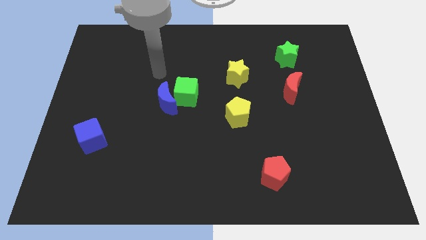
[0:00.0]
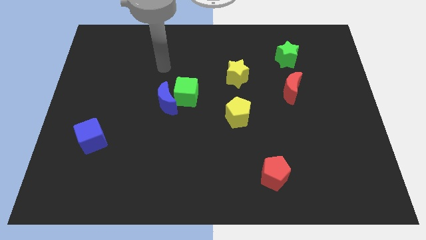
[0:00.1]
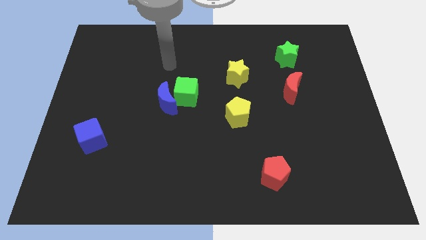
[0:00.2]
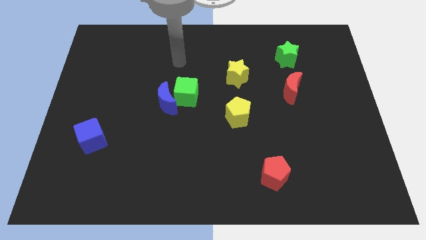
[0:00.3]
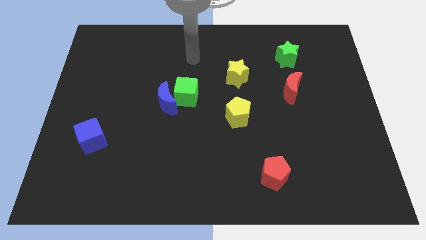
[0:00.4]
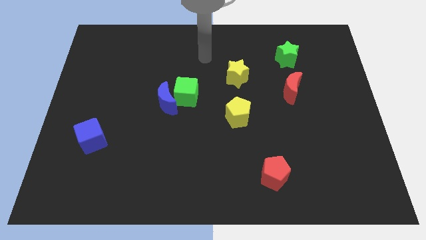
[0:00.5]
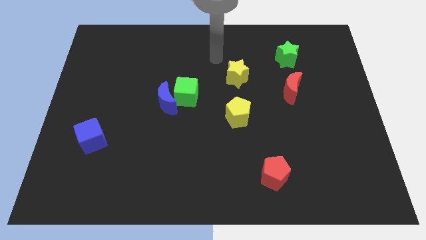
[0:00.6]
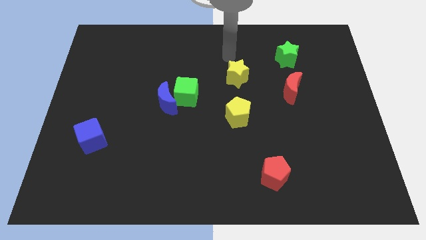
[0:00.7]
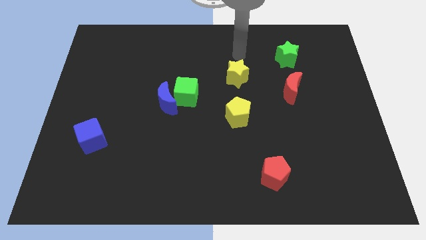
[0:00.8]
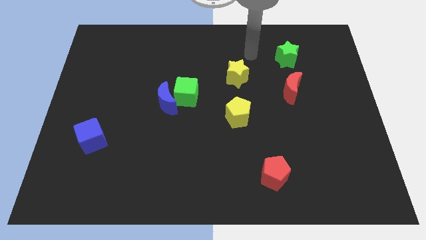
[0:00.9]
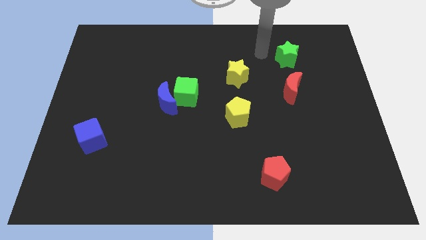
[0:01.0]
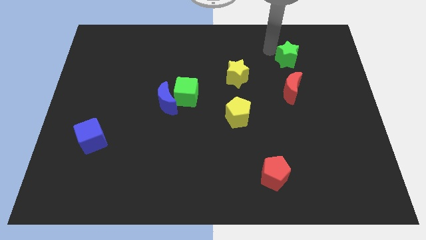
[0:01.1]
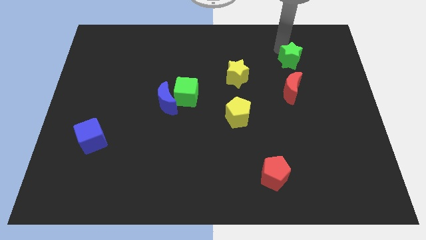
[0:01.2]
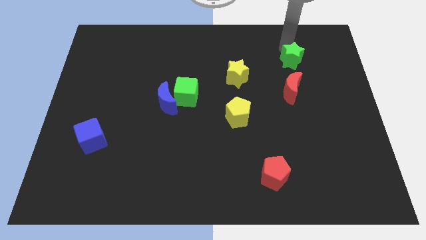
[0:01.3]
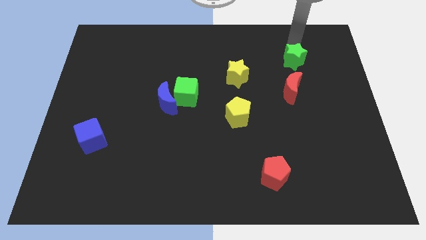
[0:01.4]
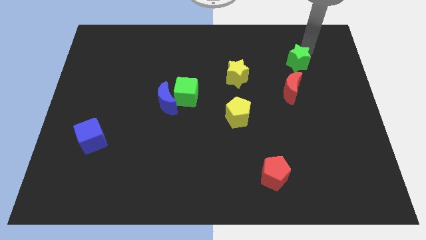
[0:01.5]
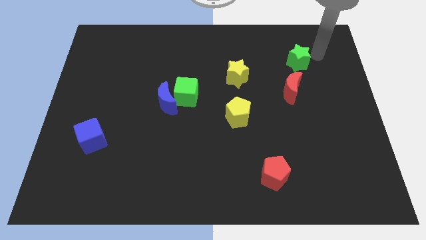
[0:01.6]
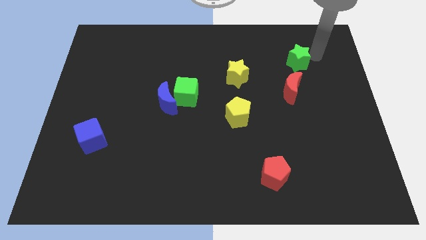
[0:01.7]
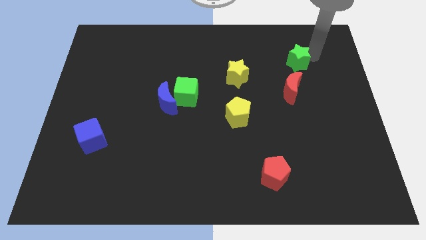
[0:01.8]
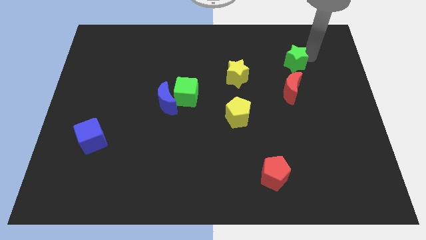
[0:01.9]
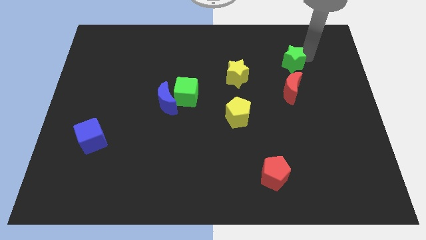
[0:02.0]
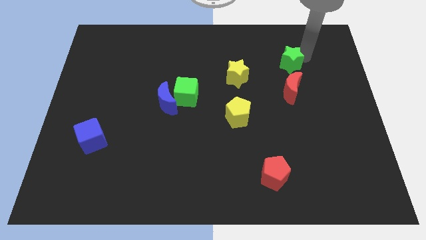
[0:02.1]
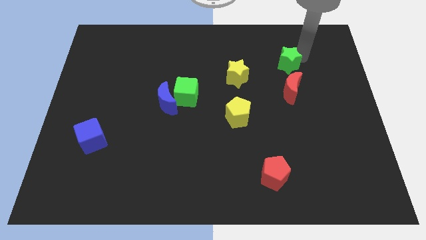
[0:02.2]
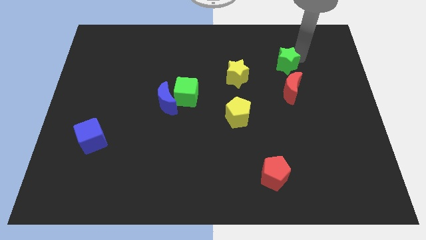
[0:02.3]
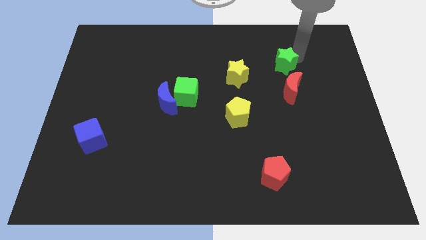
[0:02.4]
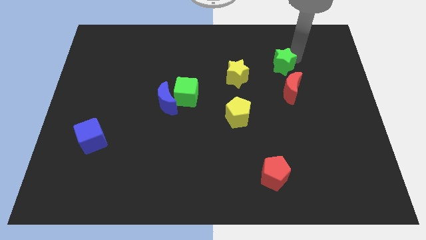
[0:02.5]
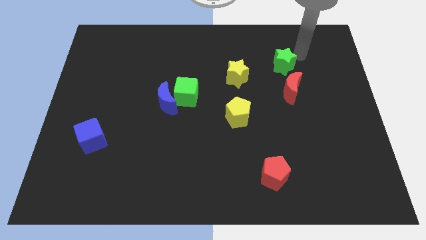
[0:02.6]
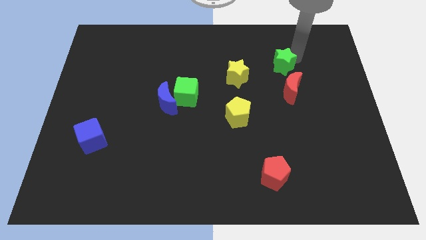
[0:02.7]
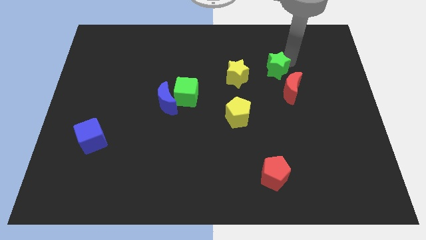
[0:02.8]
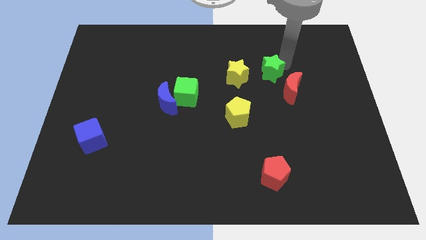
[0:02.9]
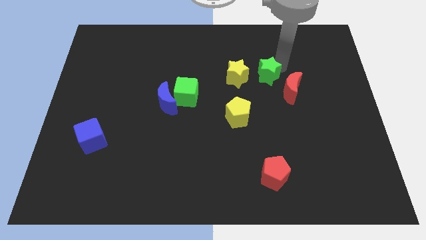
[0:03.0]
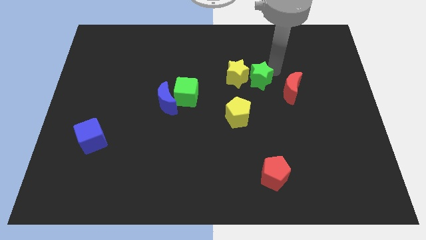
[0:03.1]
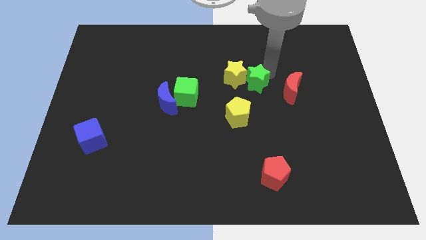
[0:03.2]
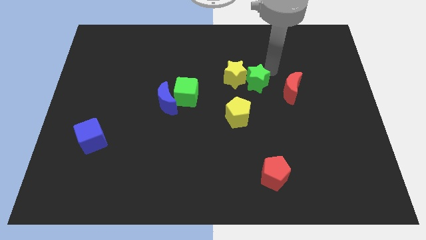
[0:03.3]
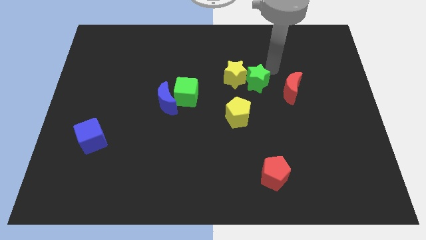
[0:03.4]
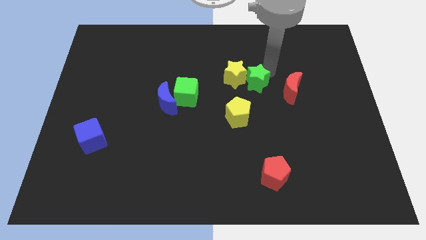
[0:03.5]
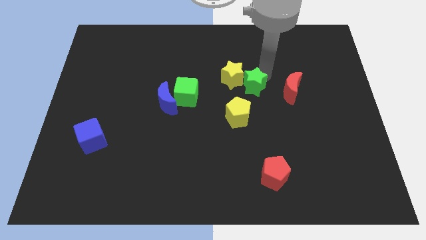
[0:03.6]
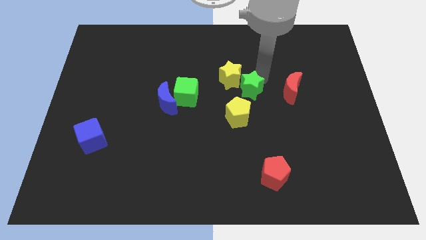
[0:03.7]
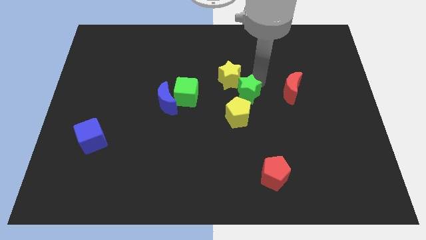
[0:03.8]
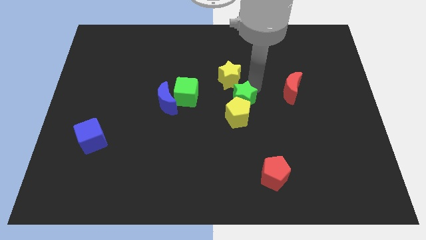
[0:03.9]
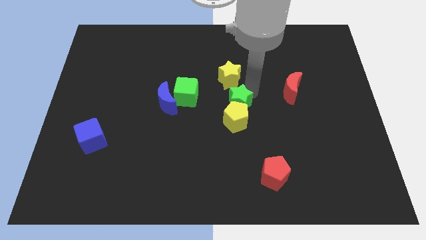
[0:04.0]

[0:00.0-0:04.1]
slide the green star downwards and to the left diagonally

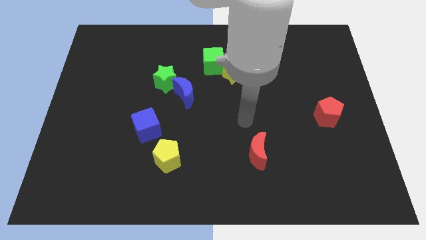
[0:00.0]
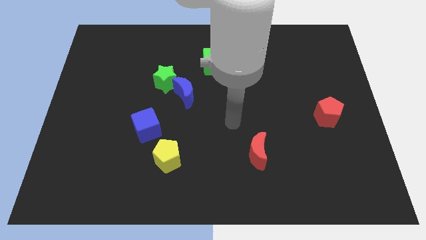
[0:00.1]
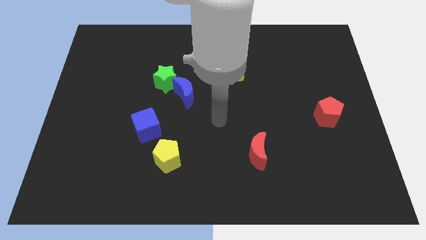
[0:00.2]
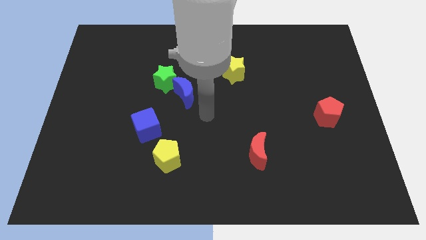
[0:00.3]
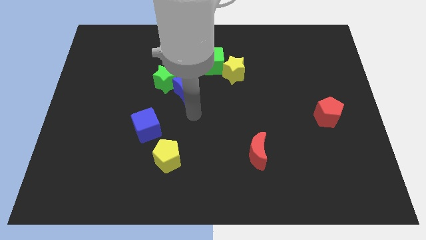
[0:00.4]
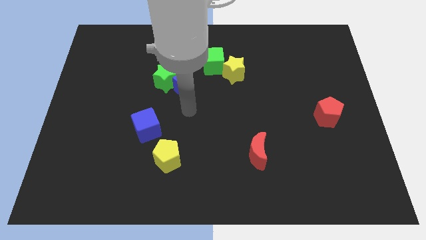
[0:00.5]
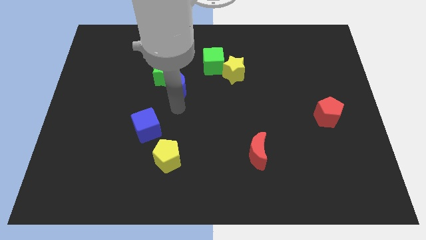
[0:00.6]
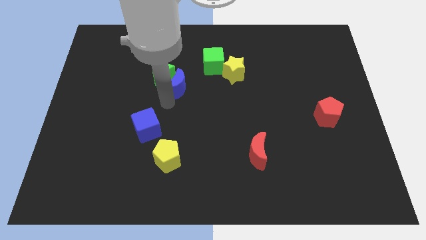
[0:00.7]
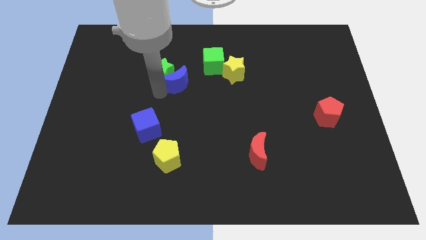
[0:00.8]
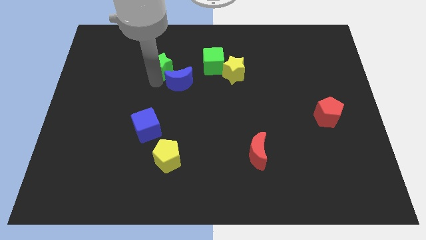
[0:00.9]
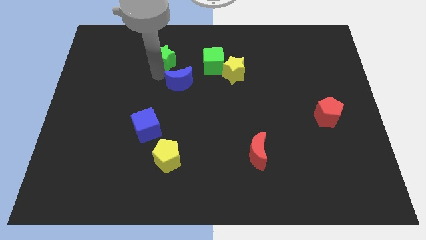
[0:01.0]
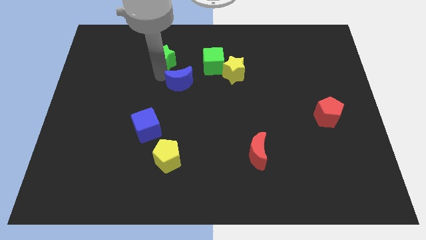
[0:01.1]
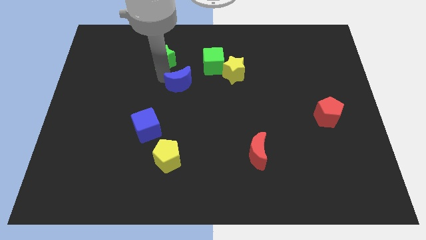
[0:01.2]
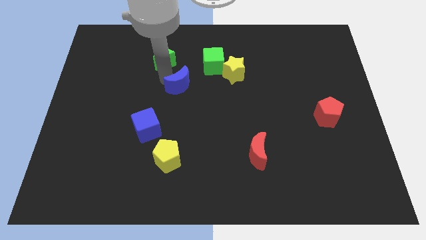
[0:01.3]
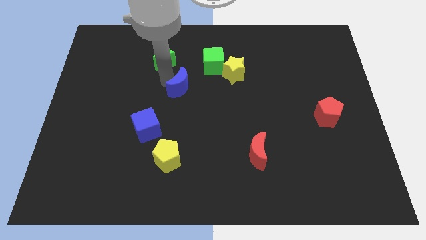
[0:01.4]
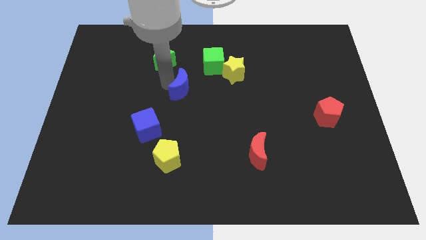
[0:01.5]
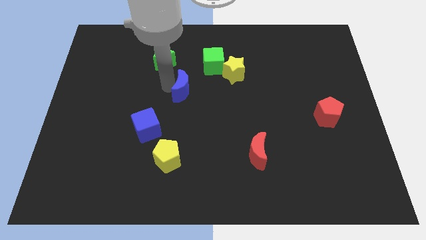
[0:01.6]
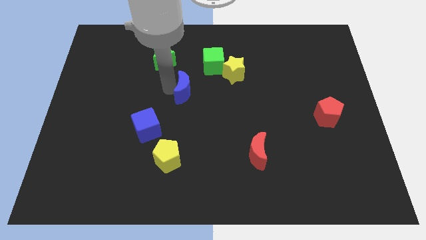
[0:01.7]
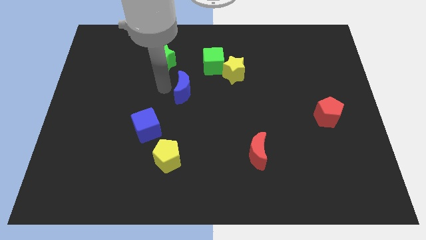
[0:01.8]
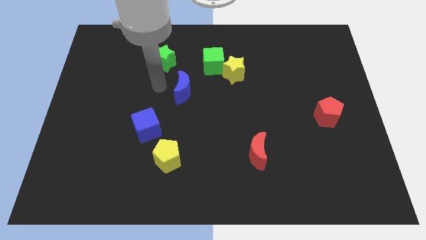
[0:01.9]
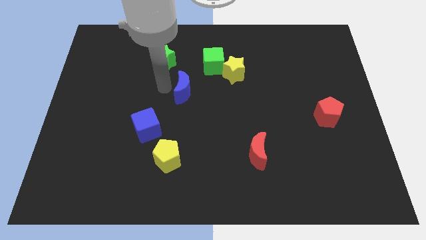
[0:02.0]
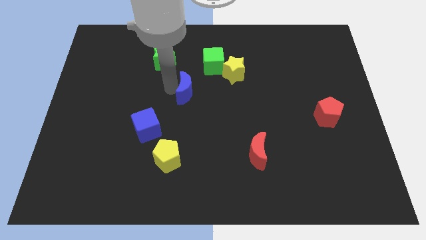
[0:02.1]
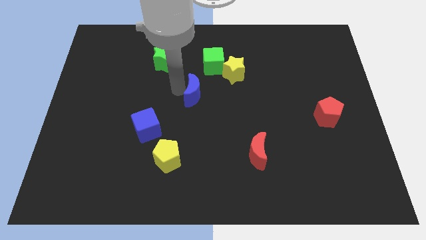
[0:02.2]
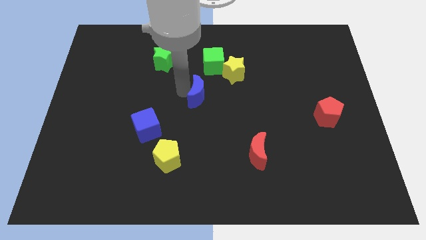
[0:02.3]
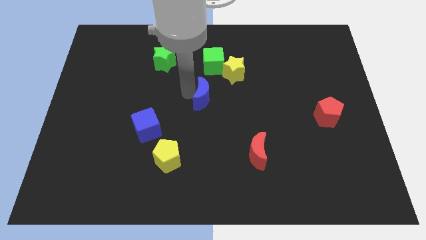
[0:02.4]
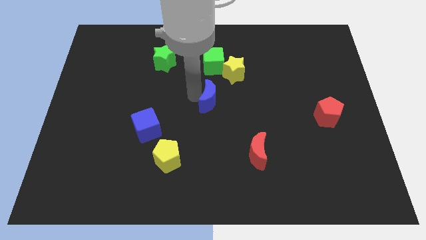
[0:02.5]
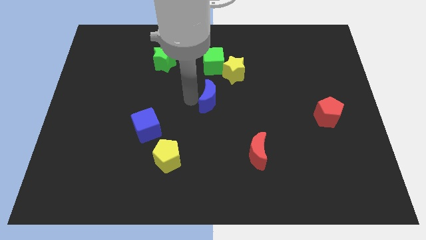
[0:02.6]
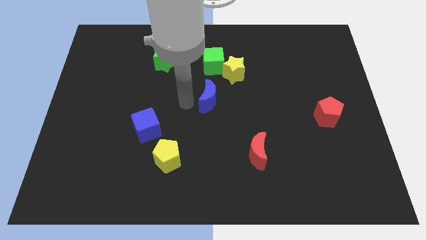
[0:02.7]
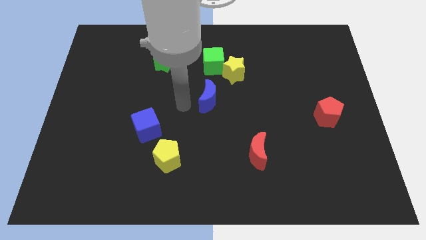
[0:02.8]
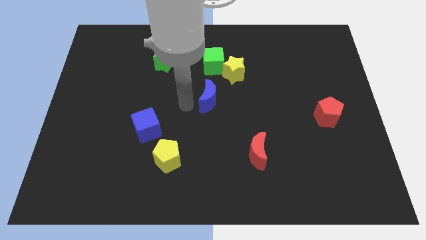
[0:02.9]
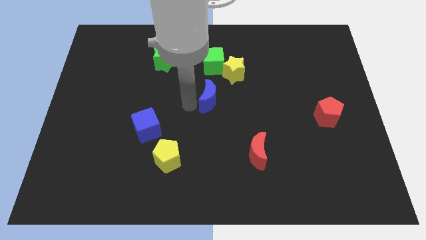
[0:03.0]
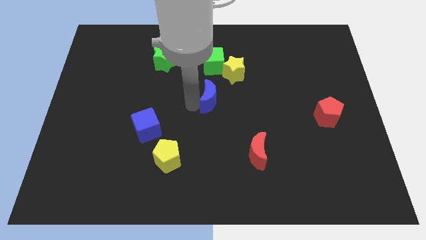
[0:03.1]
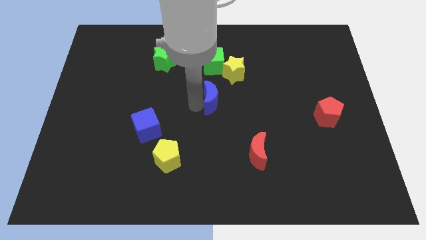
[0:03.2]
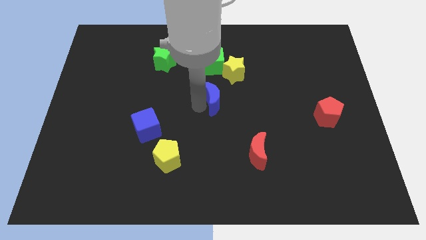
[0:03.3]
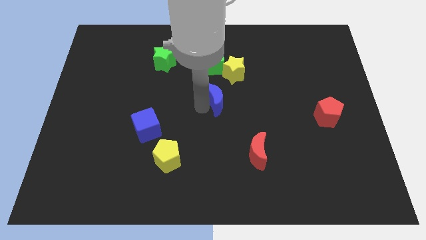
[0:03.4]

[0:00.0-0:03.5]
push the blue moon slightly right

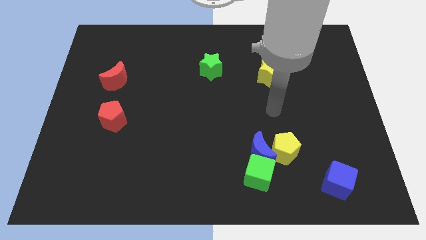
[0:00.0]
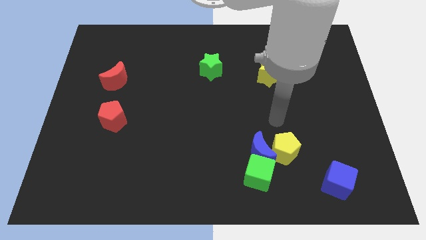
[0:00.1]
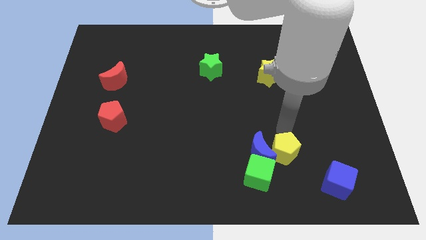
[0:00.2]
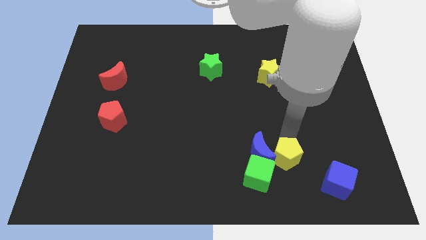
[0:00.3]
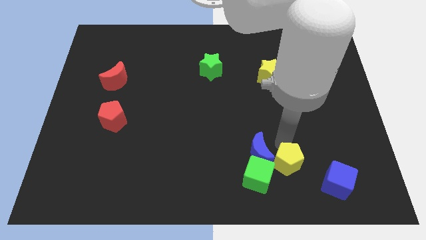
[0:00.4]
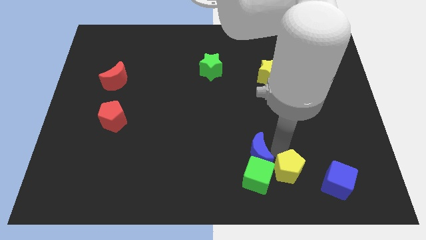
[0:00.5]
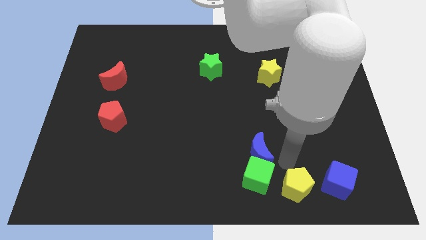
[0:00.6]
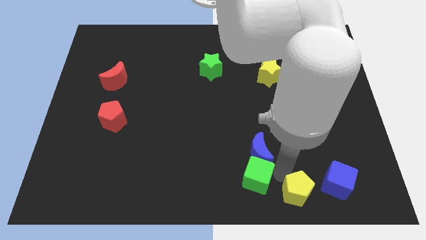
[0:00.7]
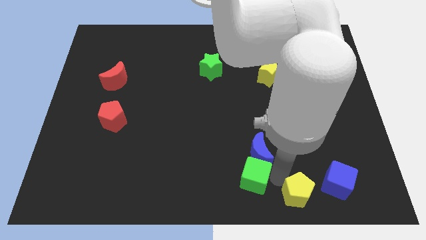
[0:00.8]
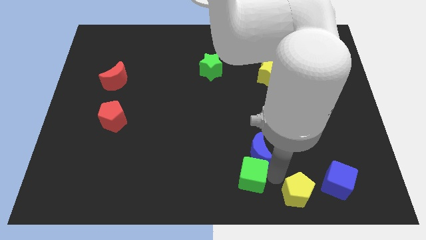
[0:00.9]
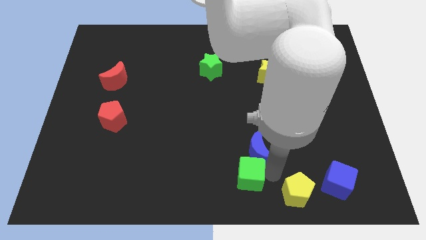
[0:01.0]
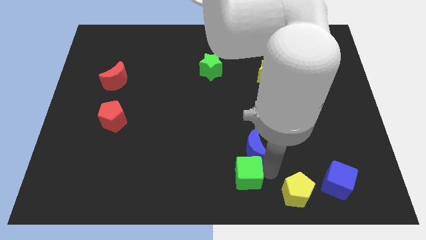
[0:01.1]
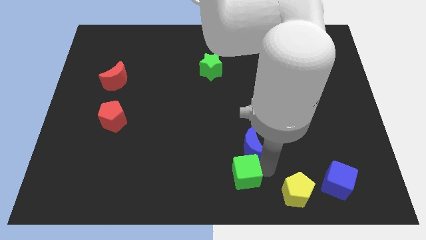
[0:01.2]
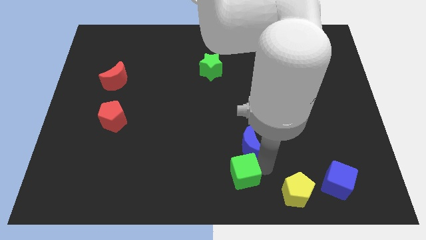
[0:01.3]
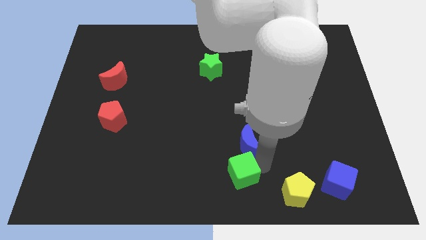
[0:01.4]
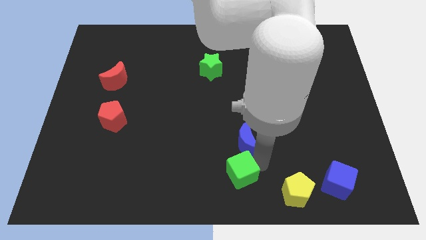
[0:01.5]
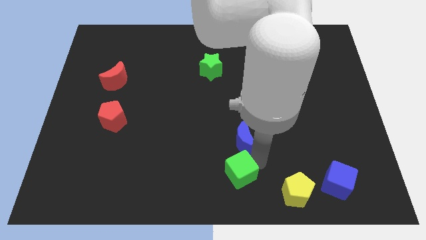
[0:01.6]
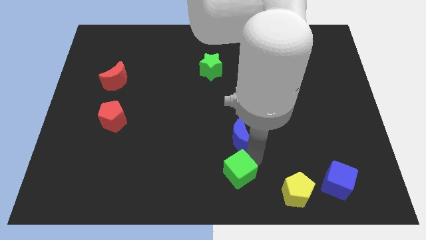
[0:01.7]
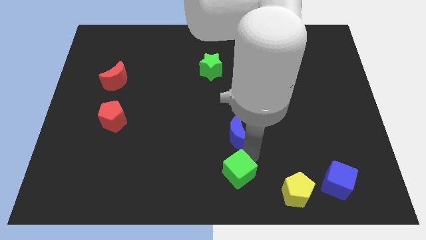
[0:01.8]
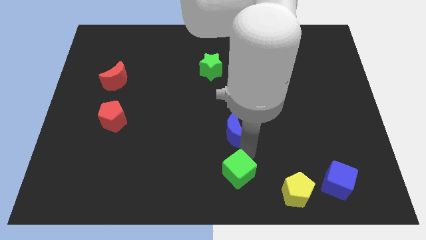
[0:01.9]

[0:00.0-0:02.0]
slightly push the blue moon upwards and left
